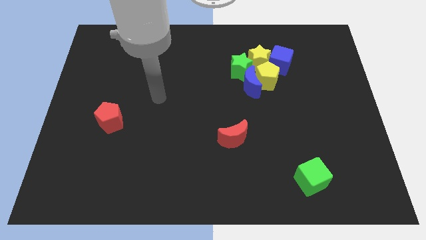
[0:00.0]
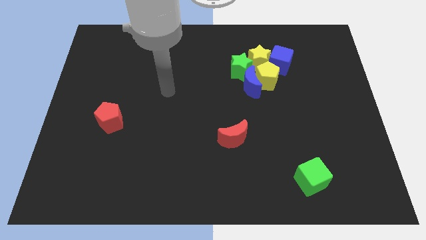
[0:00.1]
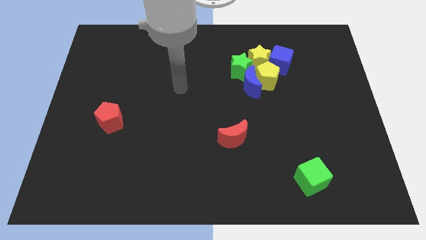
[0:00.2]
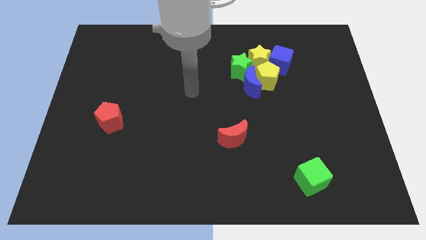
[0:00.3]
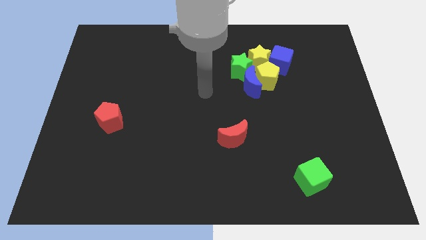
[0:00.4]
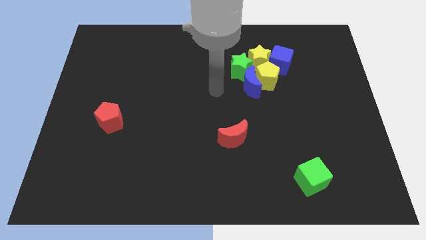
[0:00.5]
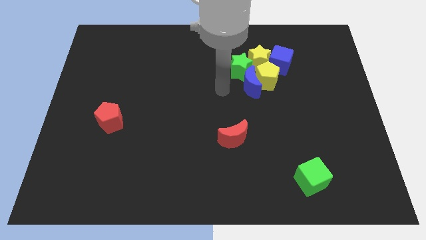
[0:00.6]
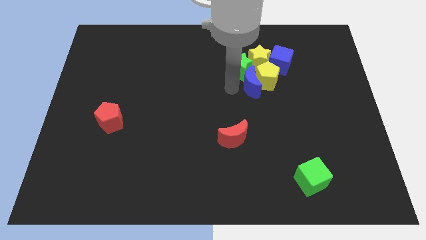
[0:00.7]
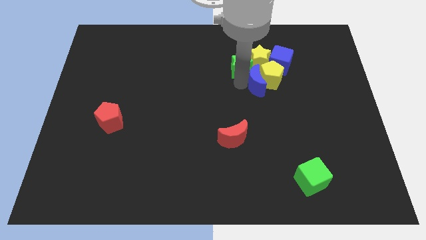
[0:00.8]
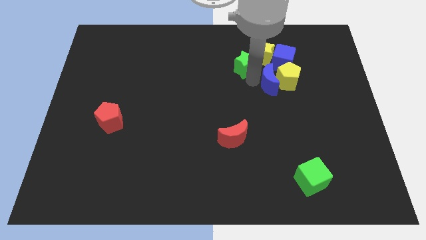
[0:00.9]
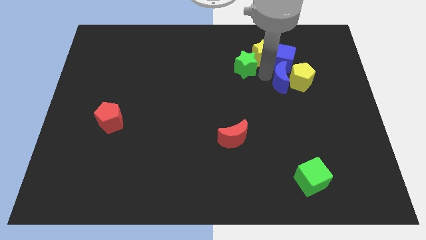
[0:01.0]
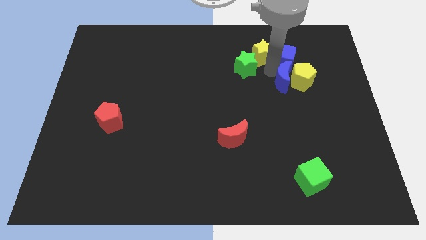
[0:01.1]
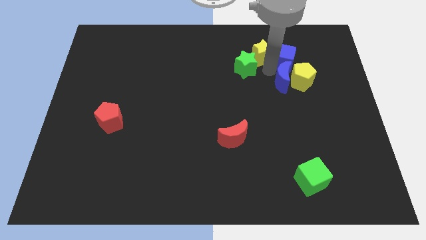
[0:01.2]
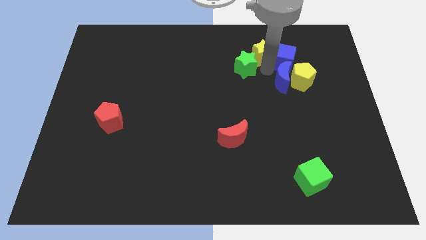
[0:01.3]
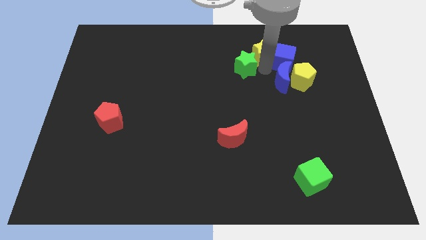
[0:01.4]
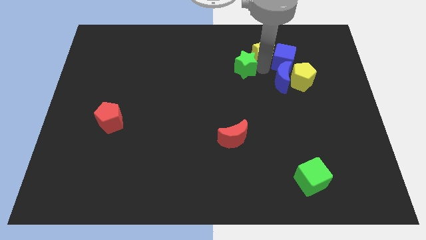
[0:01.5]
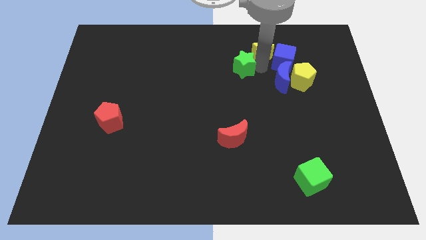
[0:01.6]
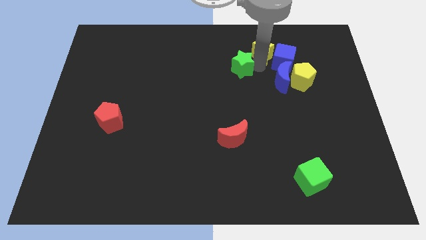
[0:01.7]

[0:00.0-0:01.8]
separate the green star from the group of blocks

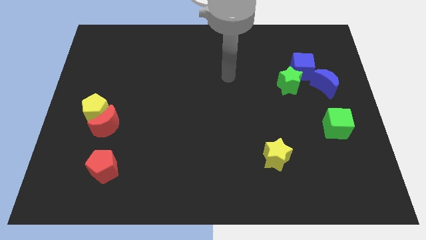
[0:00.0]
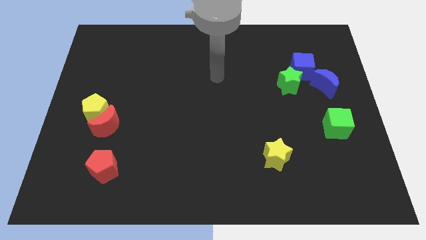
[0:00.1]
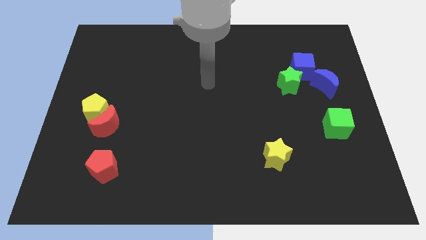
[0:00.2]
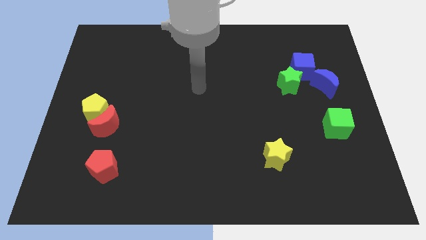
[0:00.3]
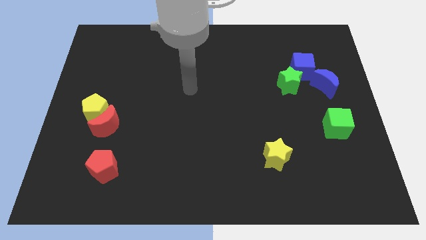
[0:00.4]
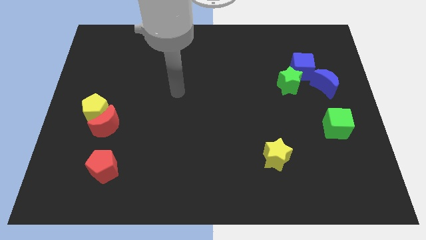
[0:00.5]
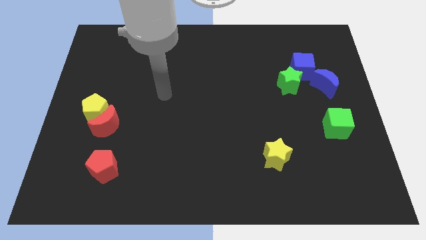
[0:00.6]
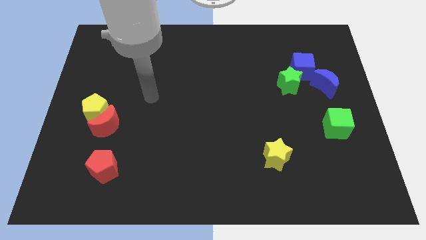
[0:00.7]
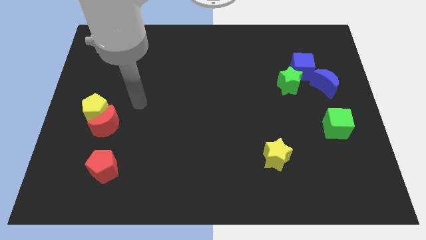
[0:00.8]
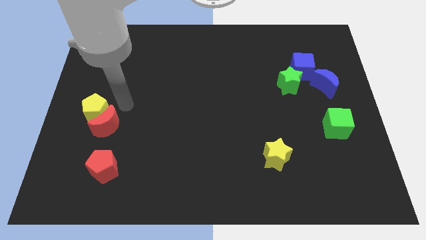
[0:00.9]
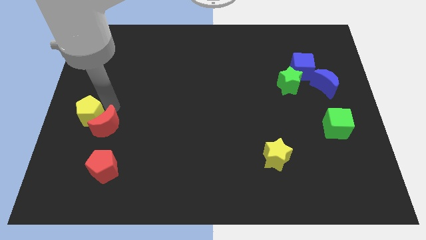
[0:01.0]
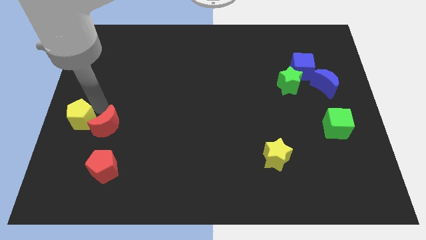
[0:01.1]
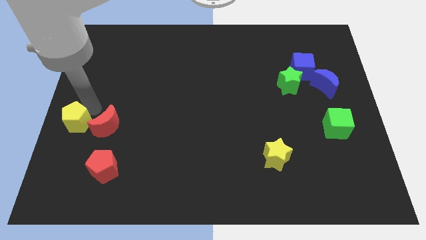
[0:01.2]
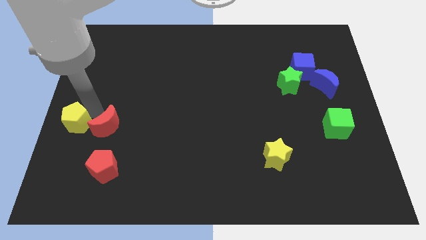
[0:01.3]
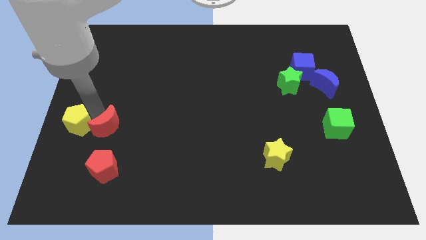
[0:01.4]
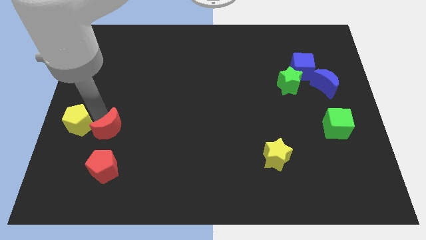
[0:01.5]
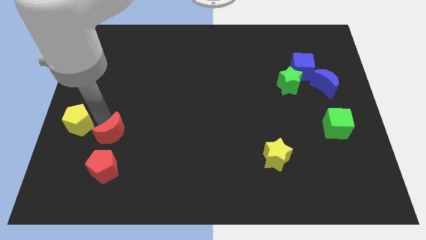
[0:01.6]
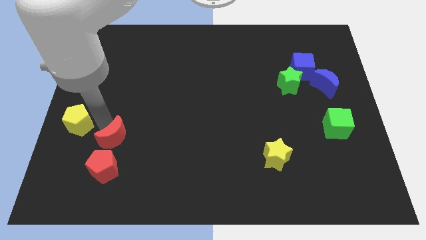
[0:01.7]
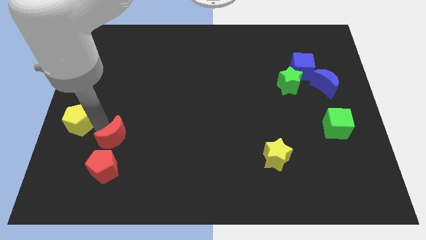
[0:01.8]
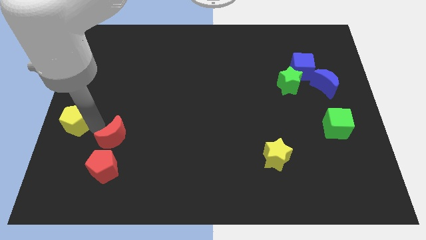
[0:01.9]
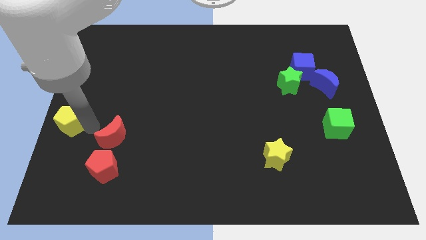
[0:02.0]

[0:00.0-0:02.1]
move the red moon away from the yellow pentagon

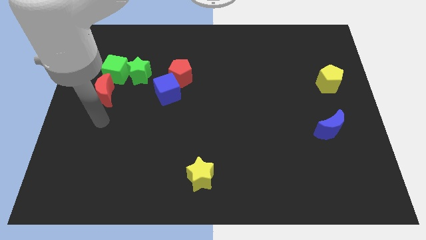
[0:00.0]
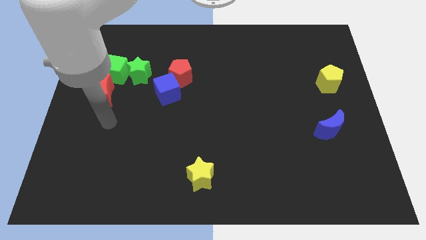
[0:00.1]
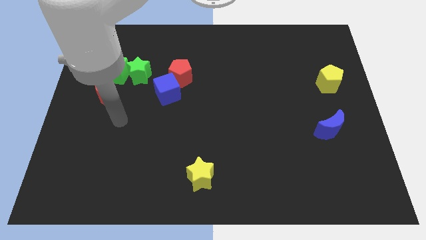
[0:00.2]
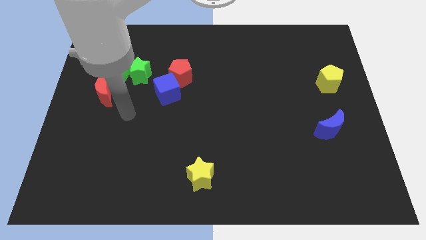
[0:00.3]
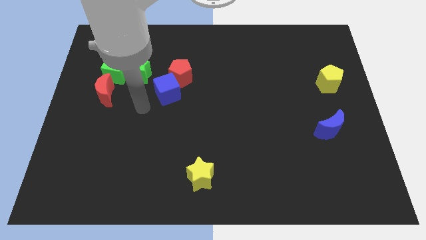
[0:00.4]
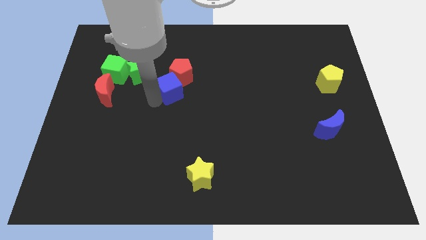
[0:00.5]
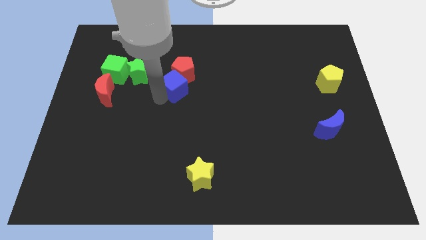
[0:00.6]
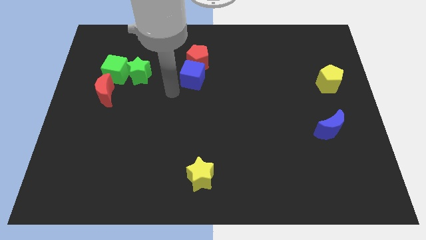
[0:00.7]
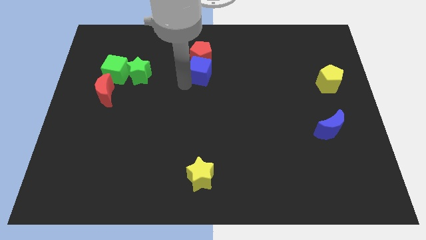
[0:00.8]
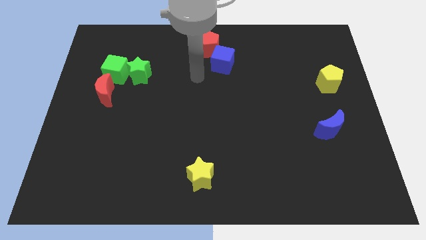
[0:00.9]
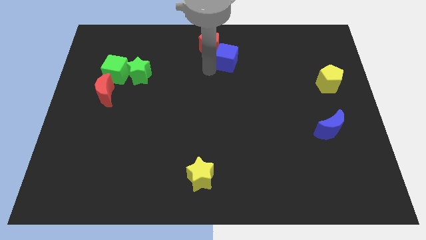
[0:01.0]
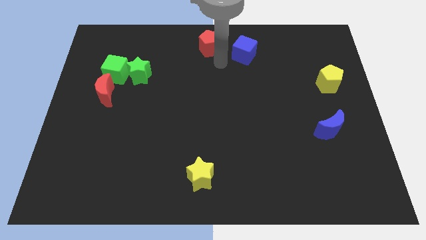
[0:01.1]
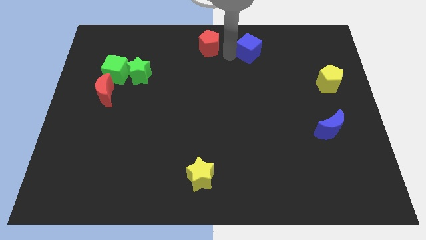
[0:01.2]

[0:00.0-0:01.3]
separate the red pentagon from the blue cube

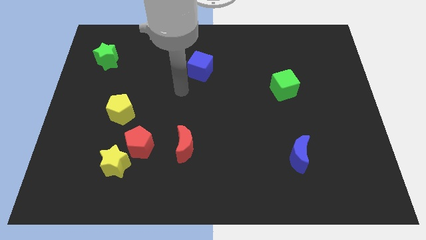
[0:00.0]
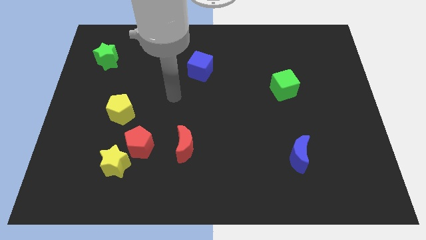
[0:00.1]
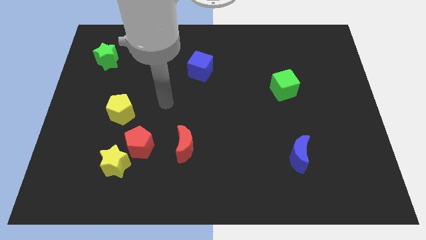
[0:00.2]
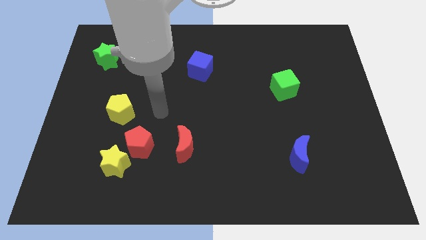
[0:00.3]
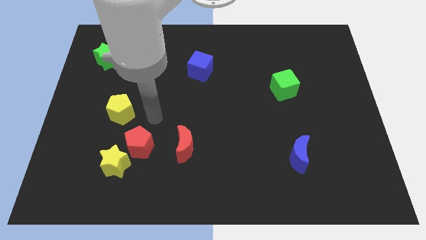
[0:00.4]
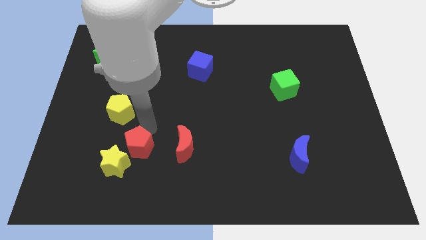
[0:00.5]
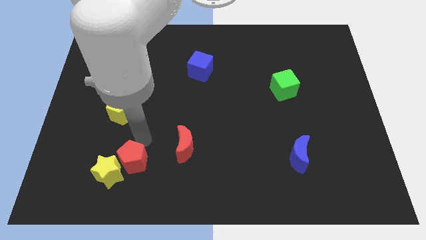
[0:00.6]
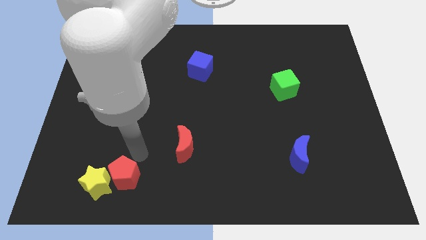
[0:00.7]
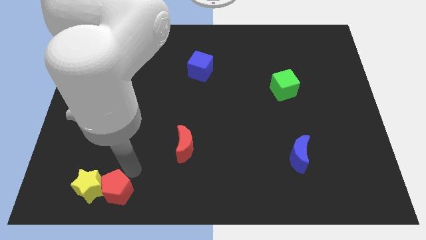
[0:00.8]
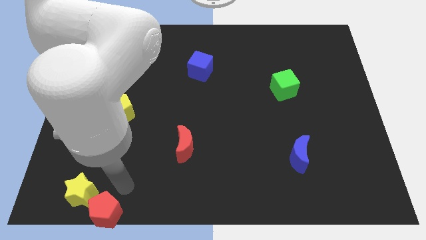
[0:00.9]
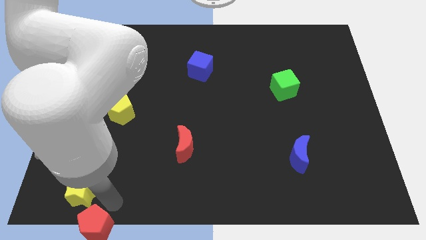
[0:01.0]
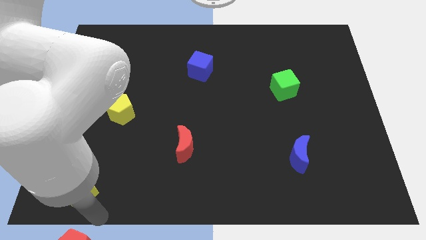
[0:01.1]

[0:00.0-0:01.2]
move the yellow star away from the red pentagon

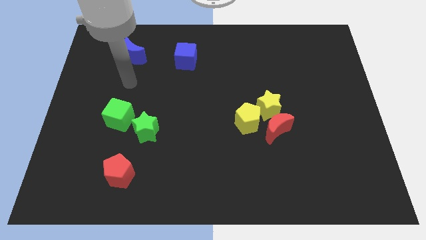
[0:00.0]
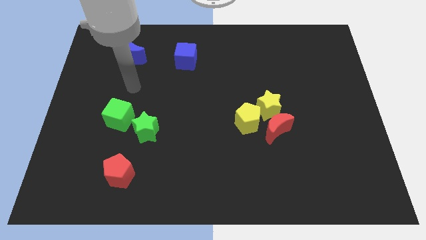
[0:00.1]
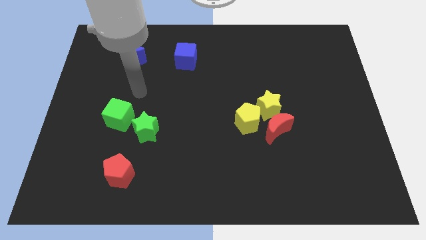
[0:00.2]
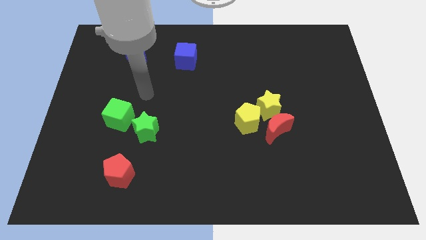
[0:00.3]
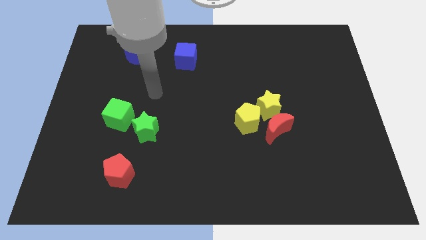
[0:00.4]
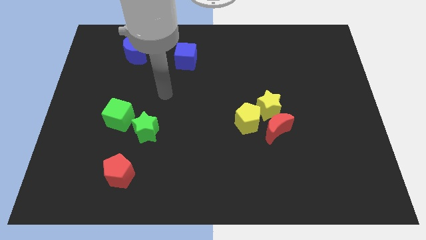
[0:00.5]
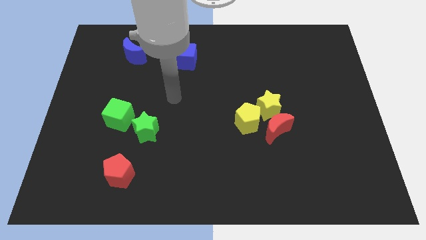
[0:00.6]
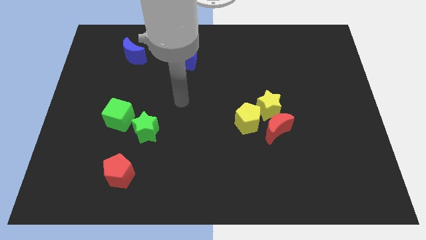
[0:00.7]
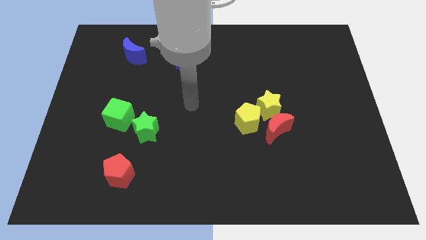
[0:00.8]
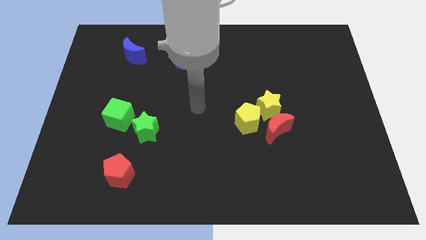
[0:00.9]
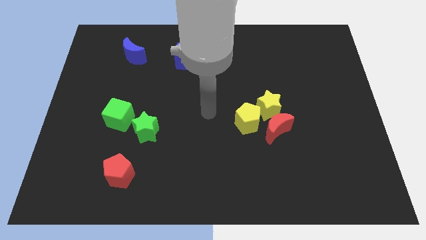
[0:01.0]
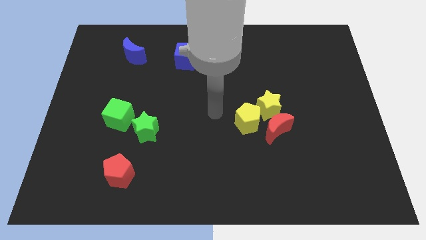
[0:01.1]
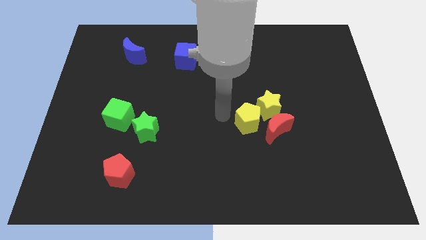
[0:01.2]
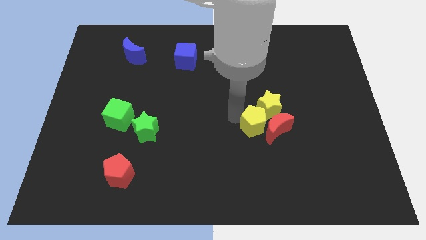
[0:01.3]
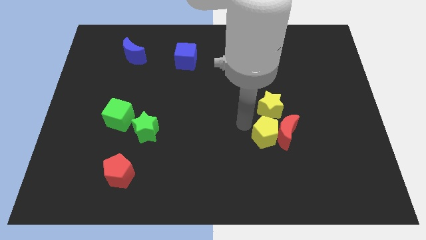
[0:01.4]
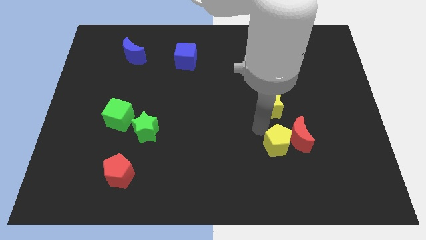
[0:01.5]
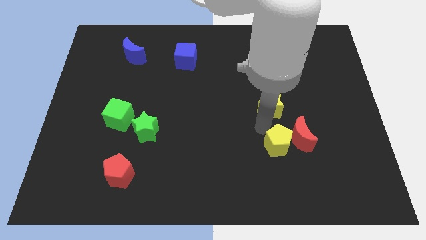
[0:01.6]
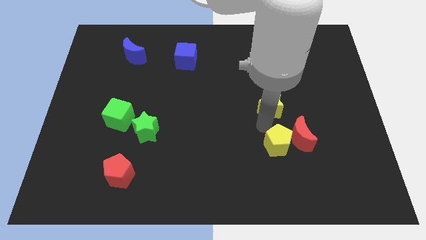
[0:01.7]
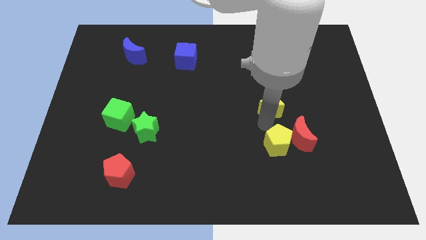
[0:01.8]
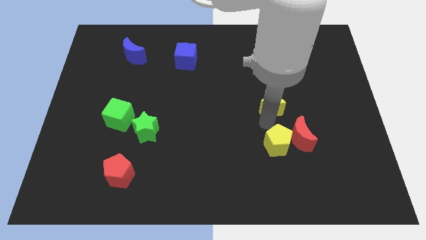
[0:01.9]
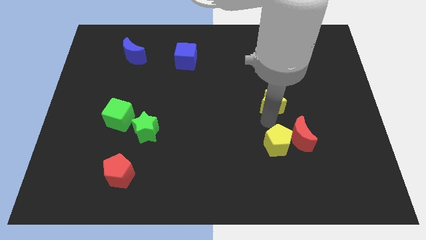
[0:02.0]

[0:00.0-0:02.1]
pull the yellow star apart from the red moon and yellow pentagon

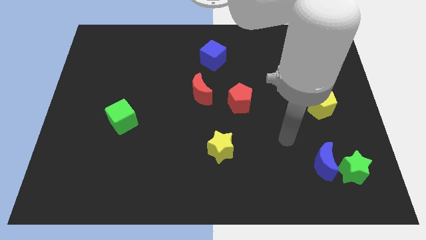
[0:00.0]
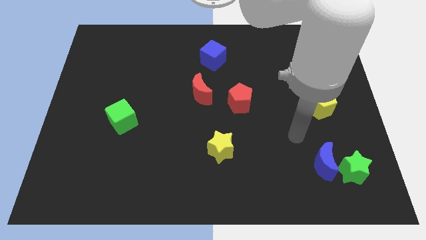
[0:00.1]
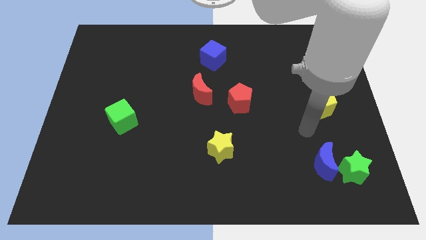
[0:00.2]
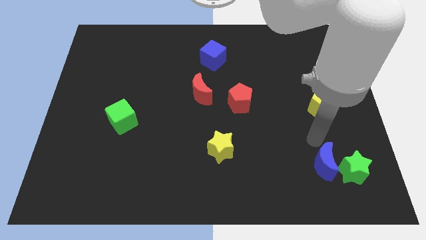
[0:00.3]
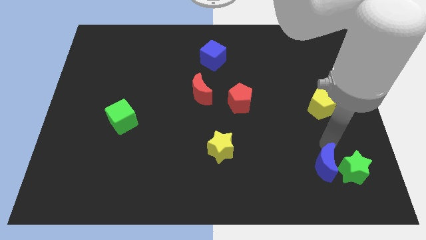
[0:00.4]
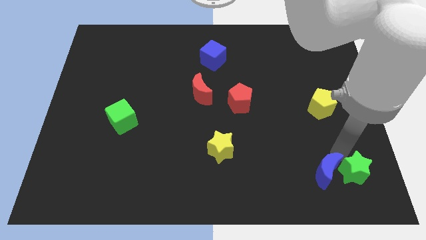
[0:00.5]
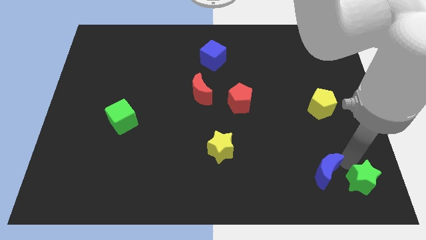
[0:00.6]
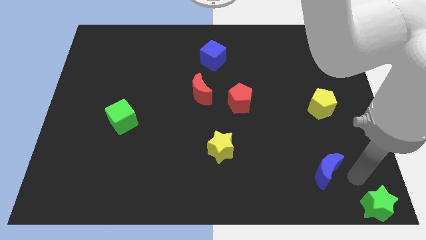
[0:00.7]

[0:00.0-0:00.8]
pull the blue moon apart from the green star
